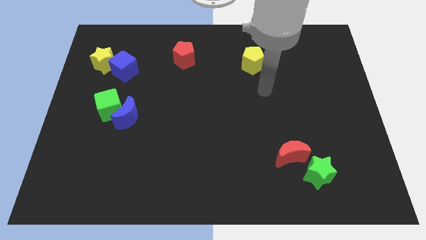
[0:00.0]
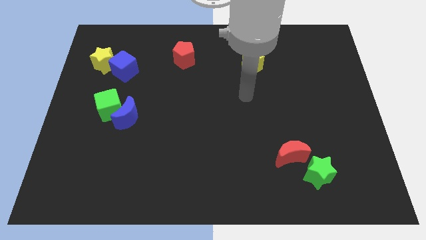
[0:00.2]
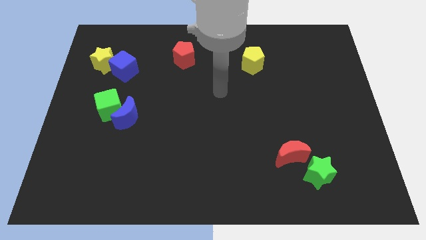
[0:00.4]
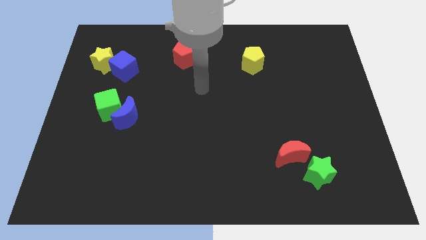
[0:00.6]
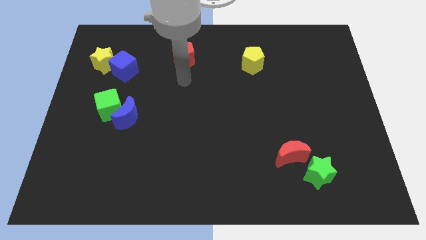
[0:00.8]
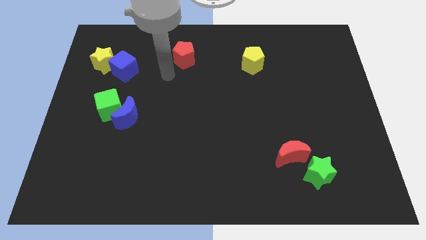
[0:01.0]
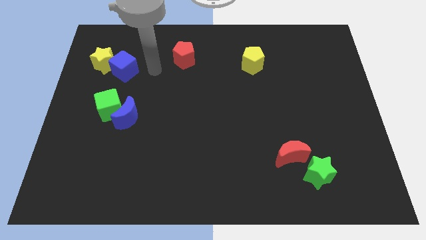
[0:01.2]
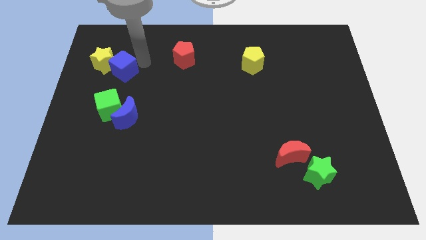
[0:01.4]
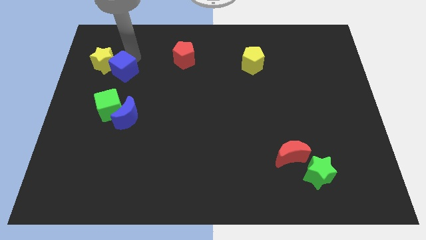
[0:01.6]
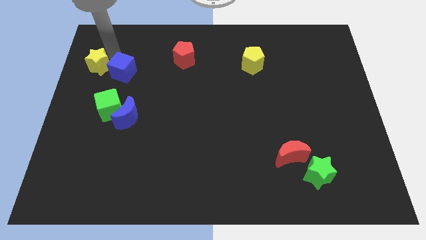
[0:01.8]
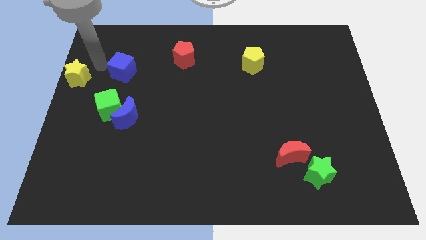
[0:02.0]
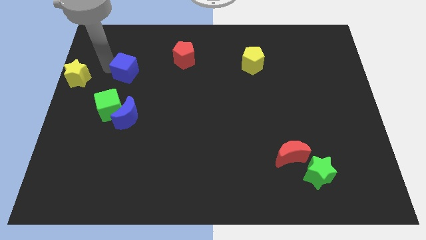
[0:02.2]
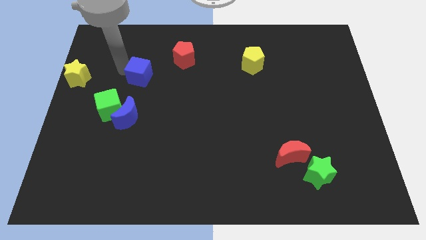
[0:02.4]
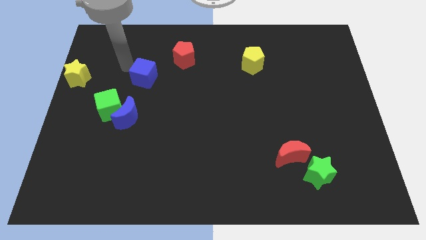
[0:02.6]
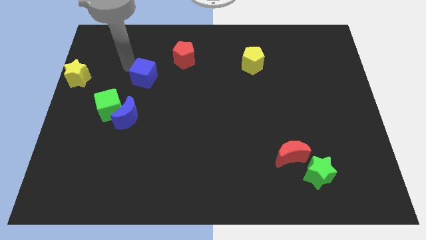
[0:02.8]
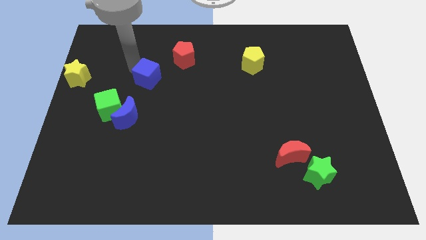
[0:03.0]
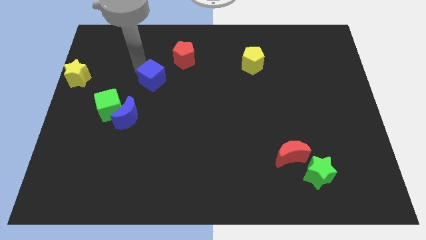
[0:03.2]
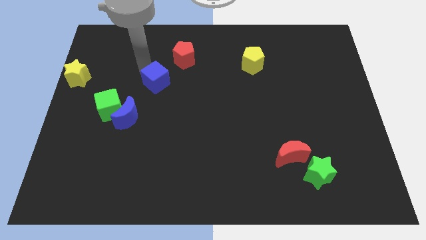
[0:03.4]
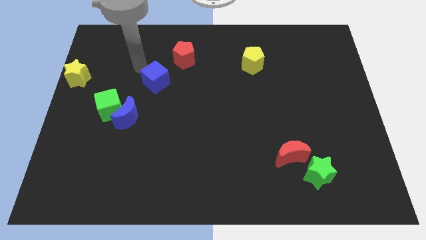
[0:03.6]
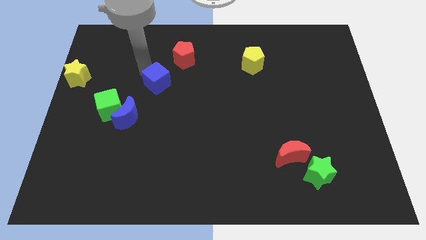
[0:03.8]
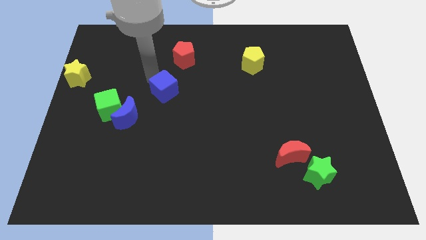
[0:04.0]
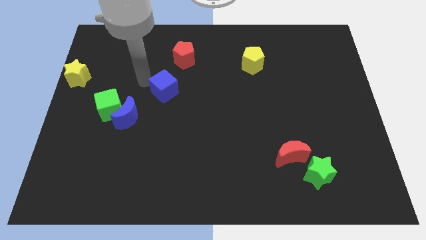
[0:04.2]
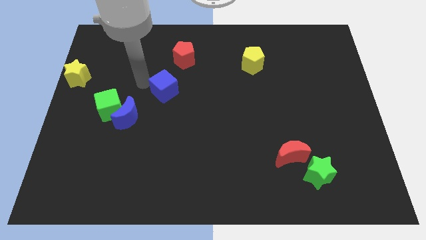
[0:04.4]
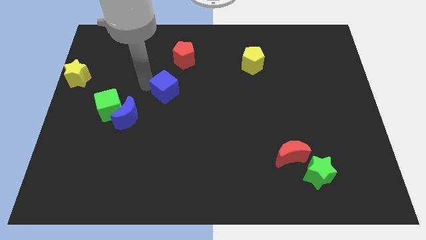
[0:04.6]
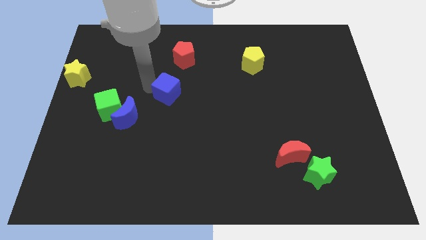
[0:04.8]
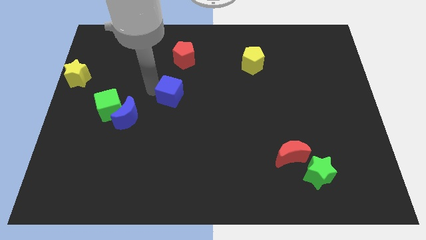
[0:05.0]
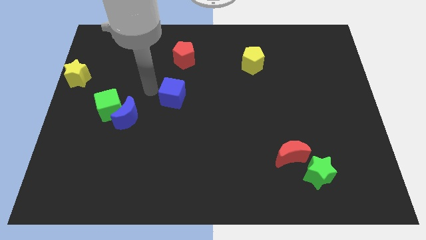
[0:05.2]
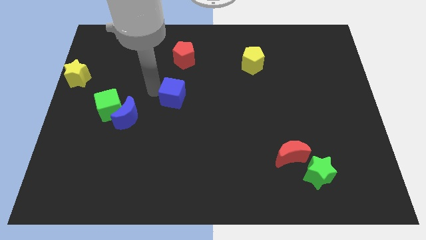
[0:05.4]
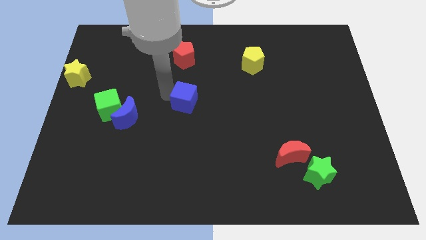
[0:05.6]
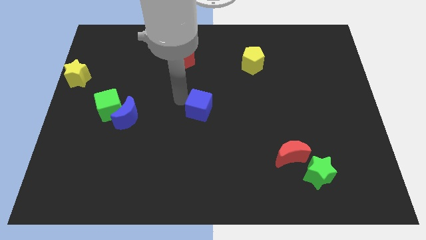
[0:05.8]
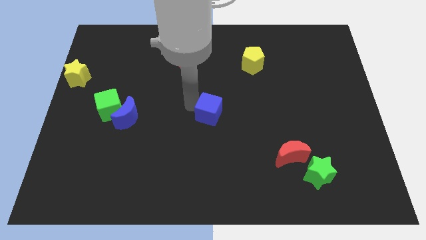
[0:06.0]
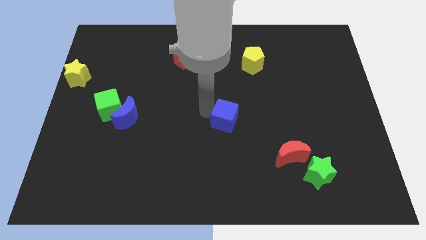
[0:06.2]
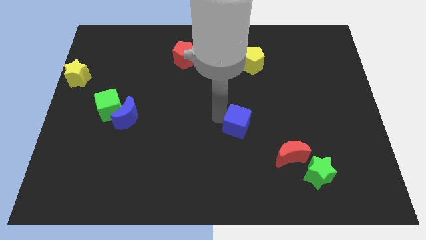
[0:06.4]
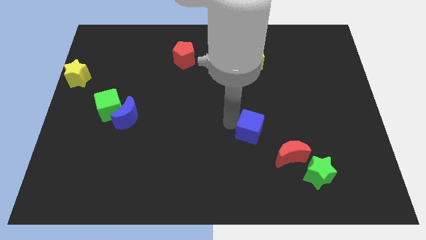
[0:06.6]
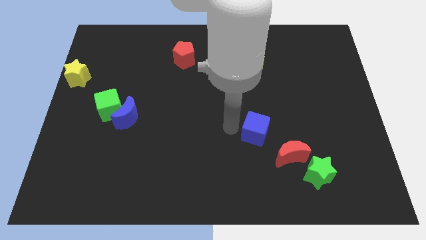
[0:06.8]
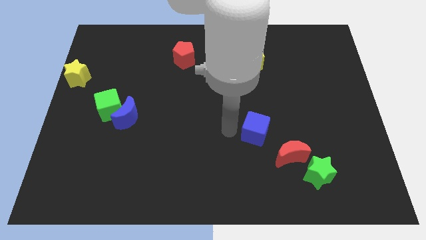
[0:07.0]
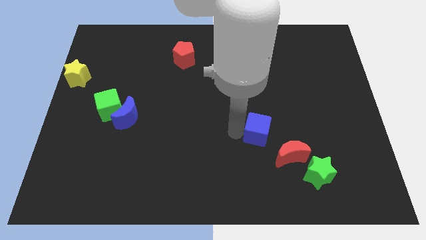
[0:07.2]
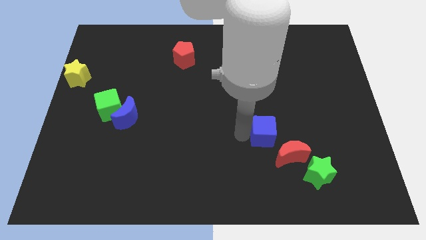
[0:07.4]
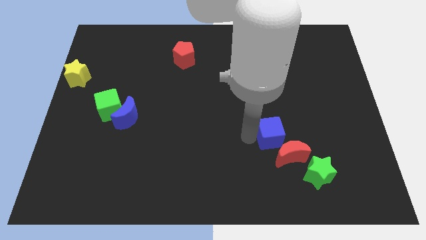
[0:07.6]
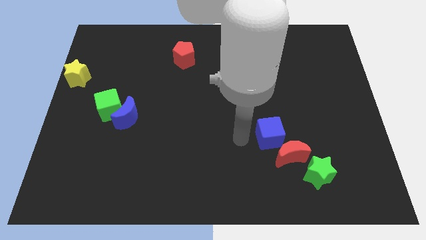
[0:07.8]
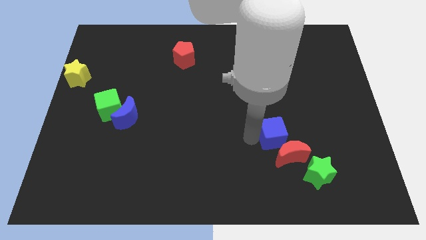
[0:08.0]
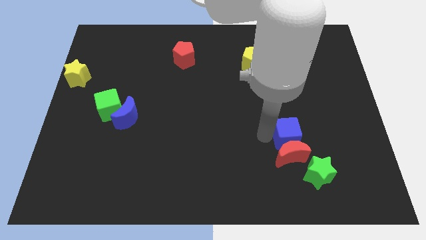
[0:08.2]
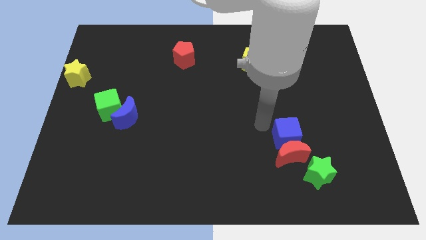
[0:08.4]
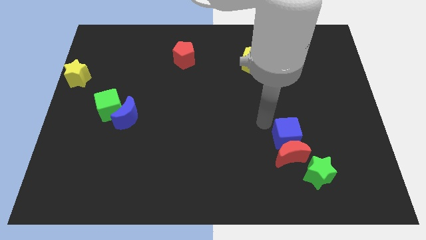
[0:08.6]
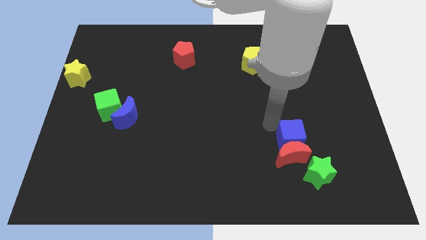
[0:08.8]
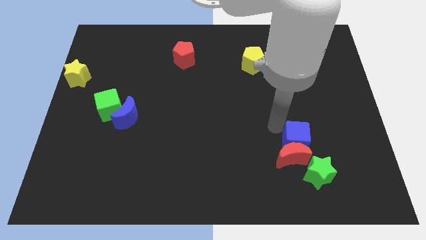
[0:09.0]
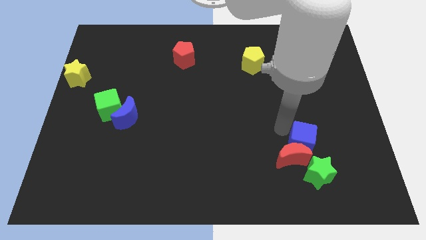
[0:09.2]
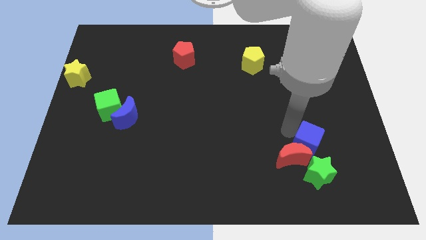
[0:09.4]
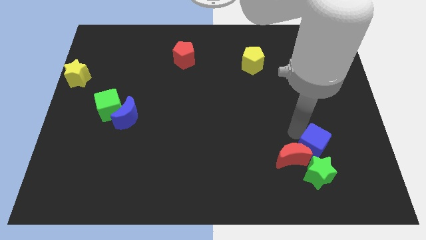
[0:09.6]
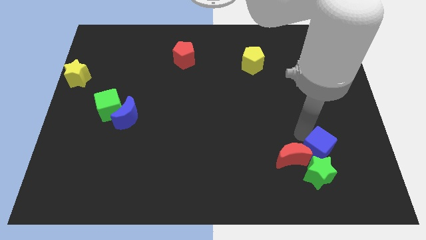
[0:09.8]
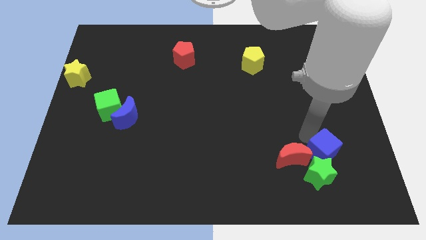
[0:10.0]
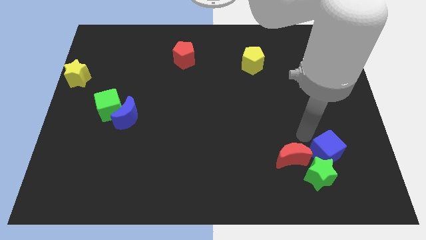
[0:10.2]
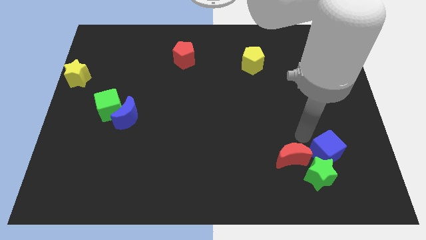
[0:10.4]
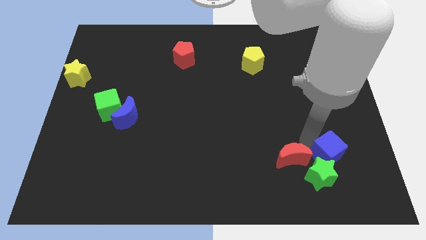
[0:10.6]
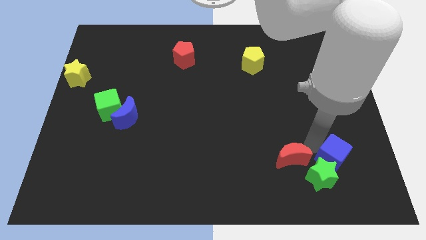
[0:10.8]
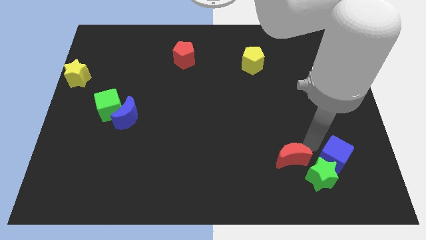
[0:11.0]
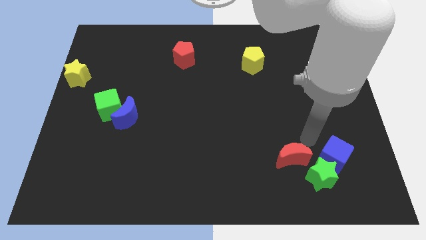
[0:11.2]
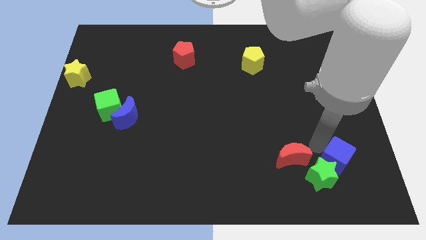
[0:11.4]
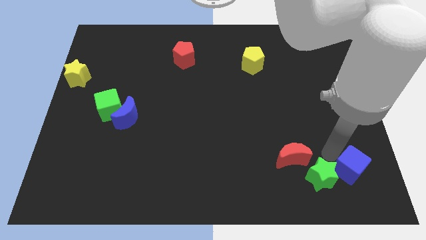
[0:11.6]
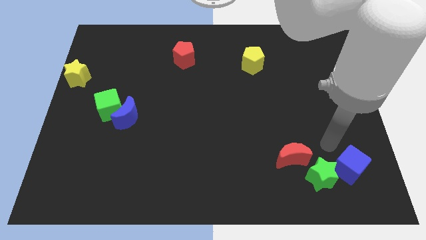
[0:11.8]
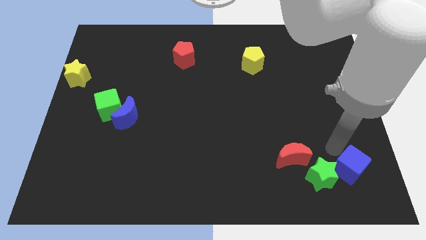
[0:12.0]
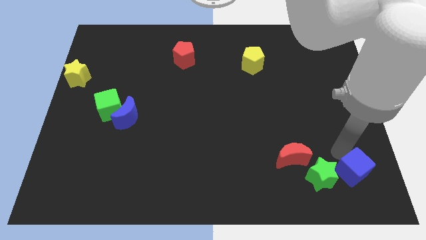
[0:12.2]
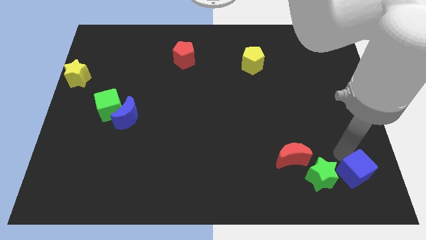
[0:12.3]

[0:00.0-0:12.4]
push the blue cube to the bottom right corner
